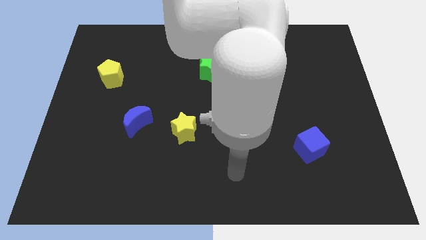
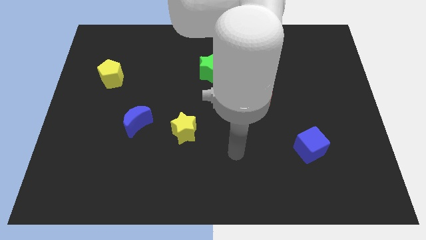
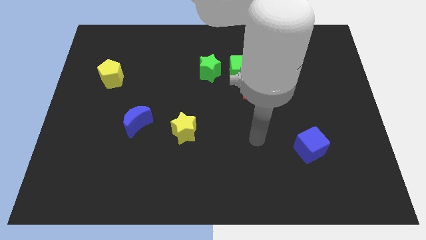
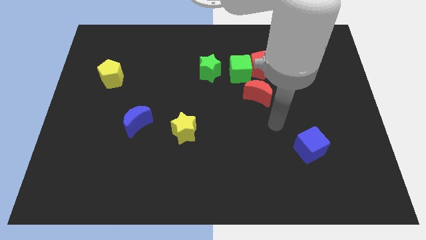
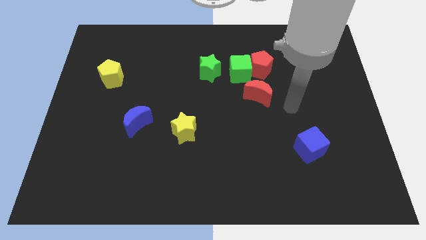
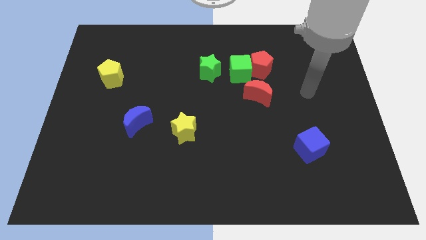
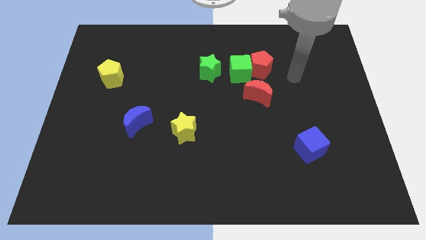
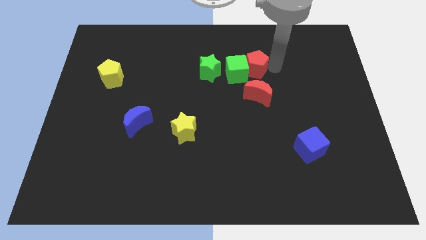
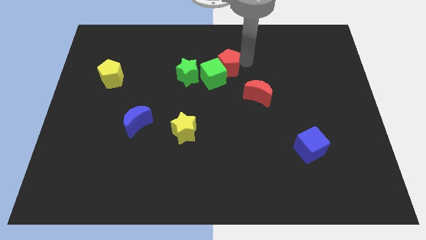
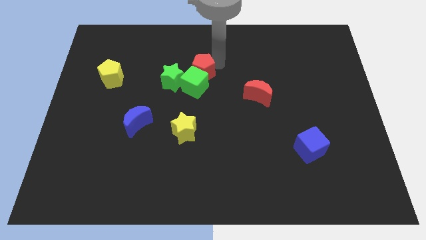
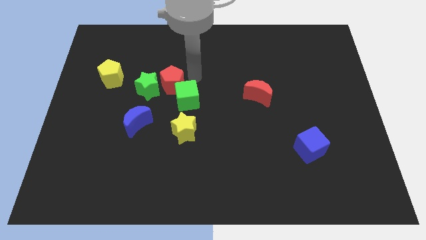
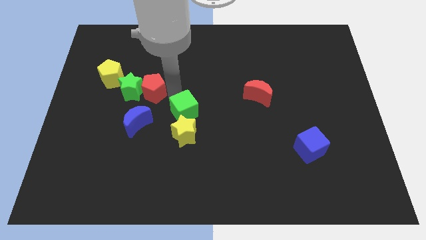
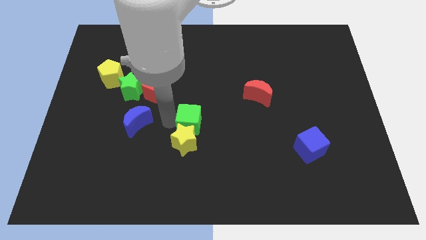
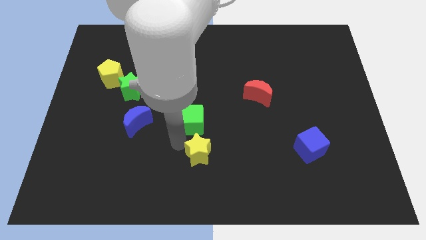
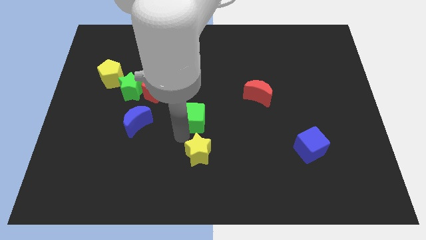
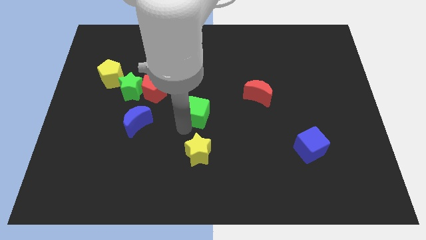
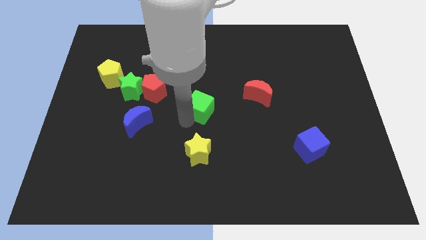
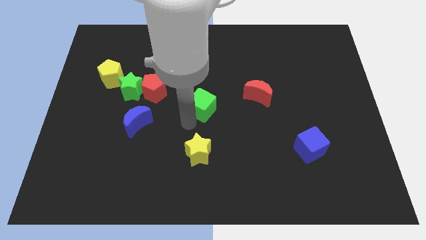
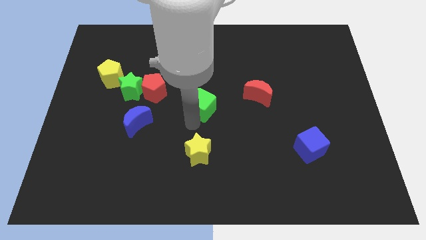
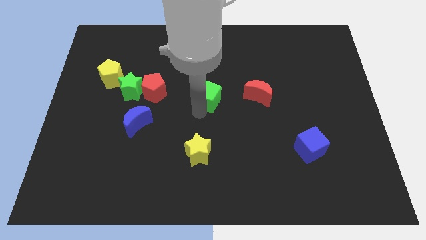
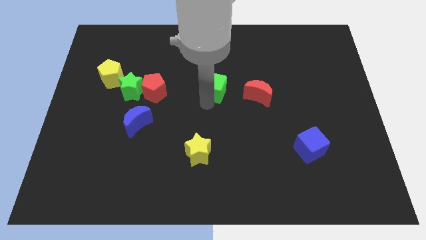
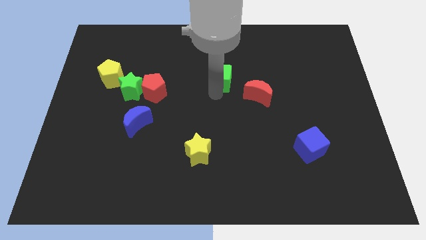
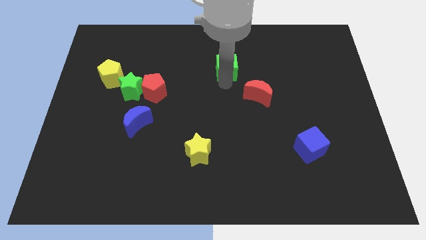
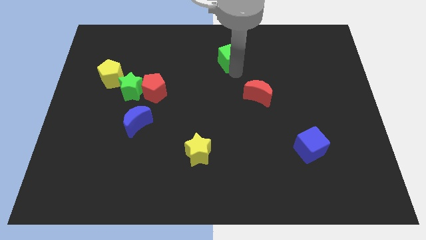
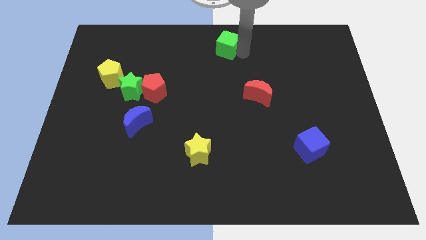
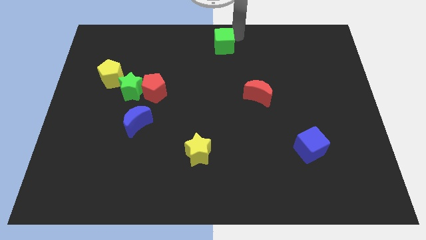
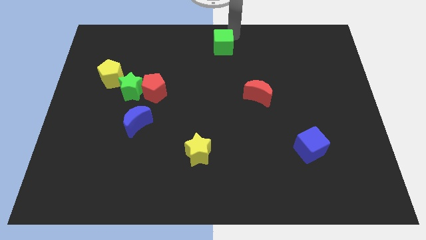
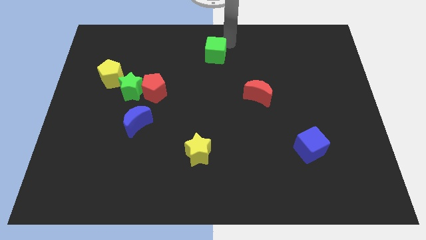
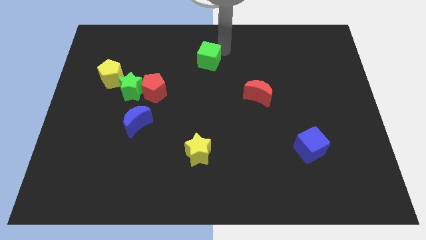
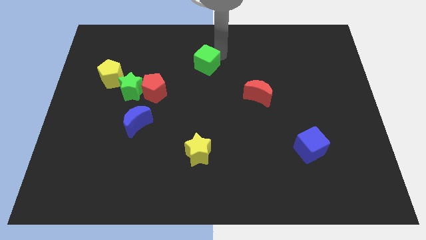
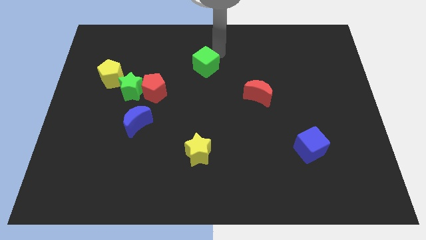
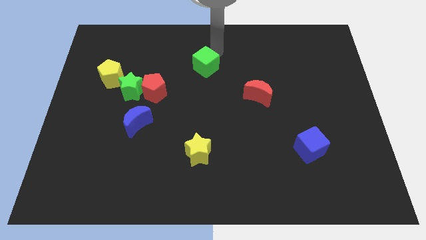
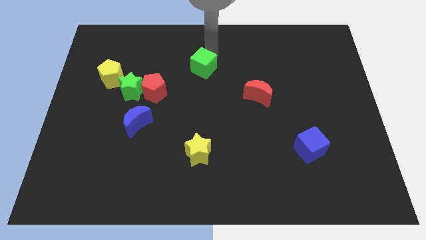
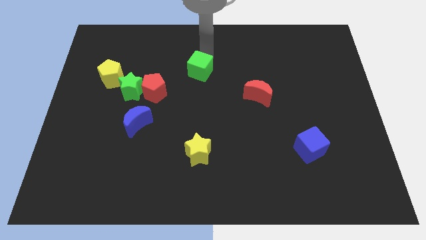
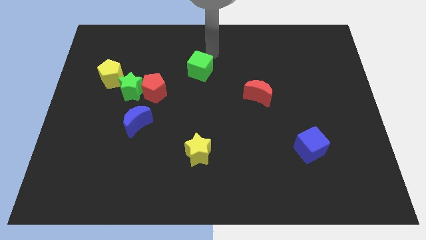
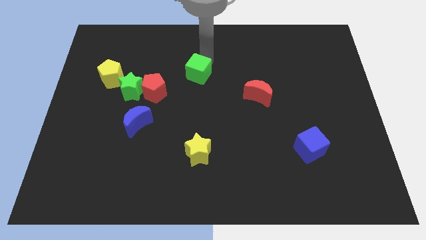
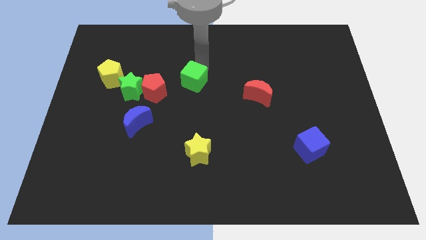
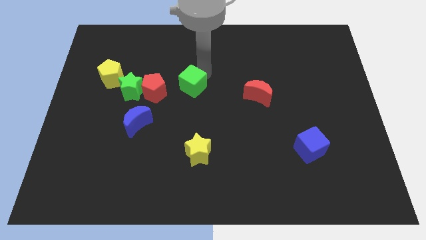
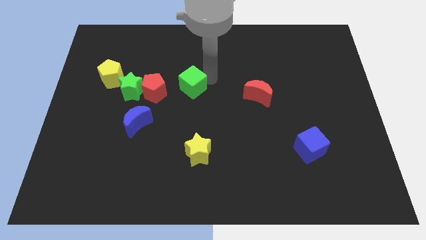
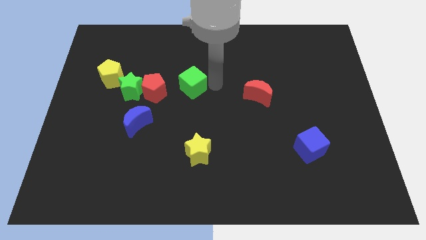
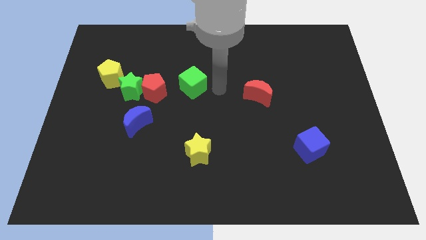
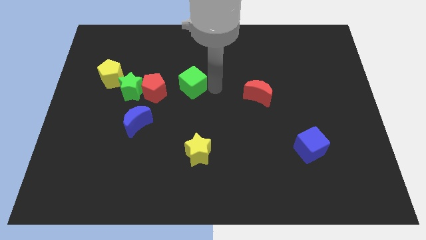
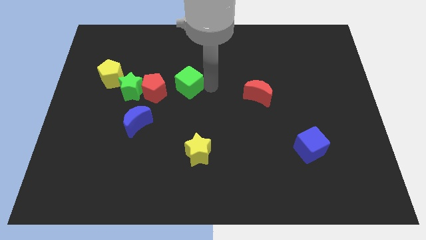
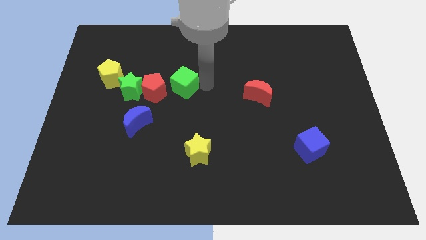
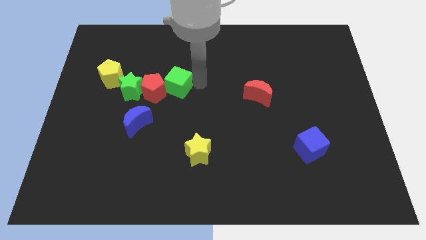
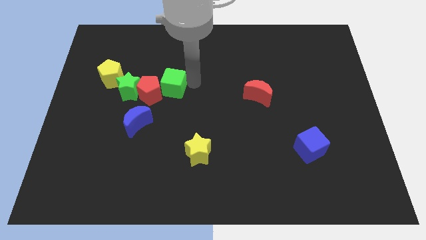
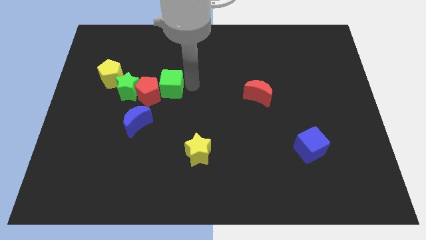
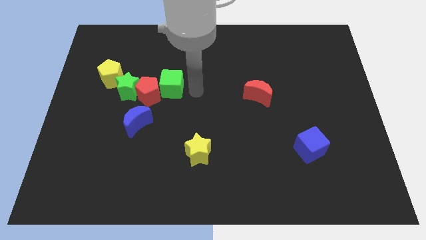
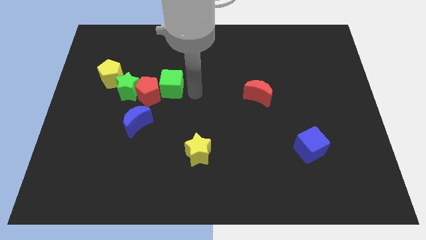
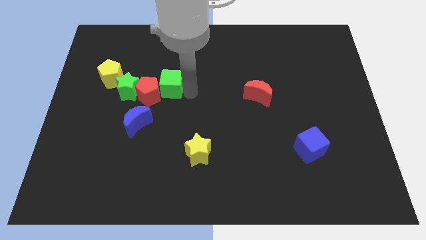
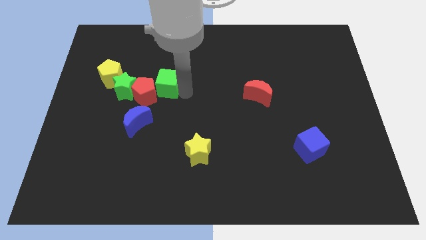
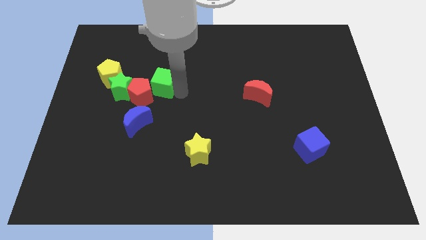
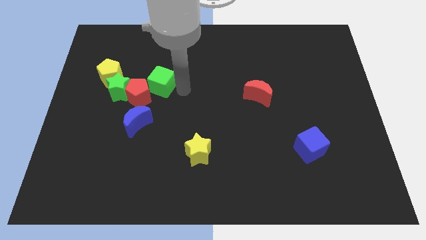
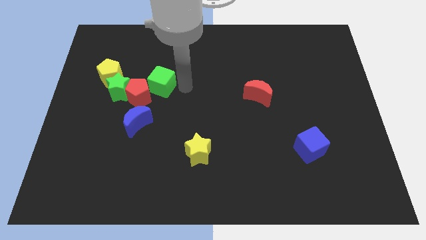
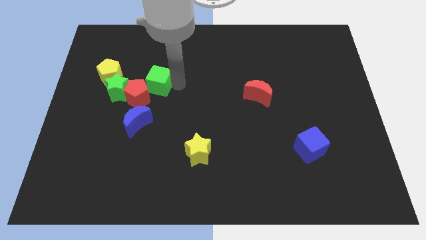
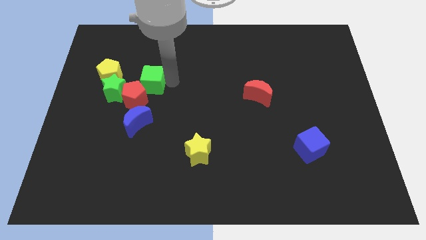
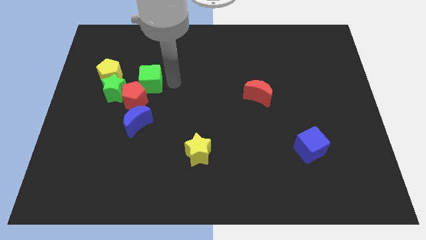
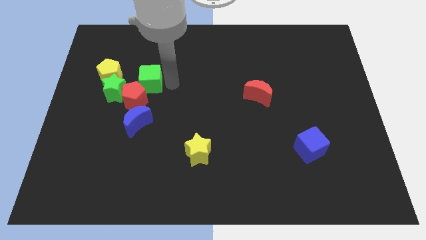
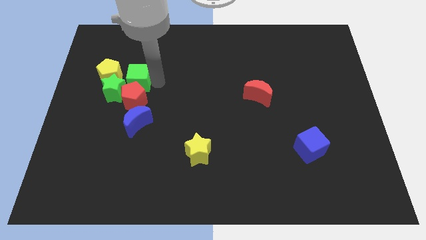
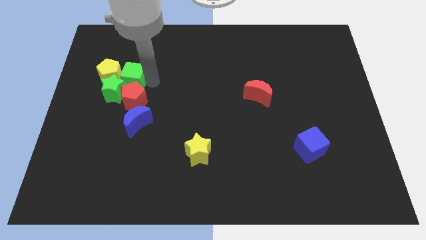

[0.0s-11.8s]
push the green cube next to the yellow pentagon

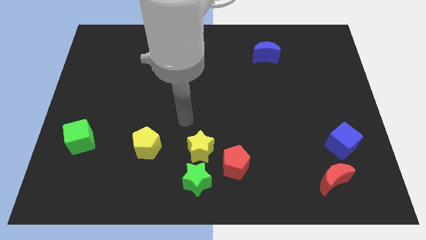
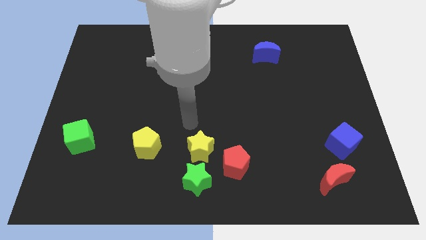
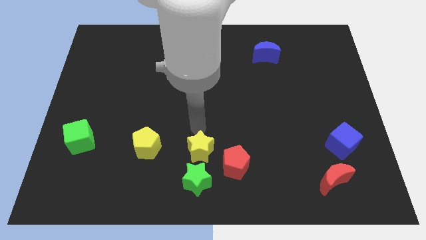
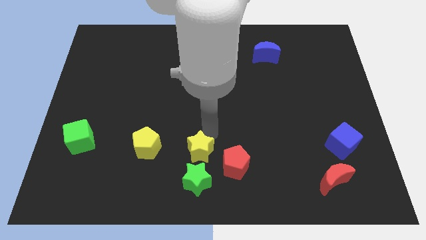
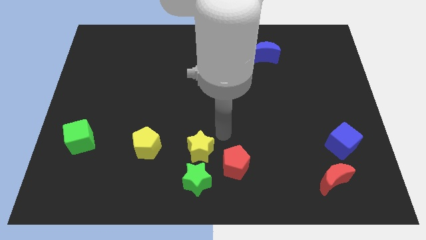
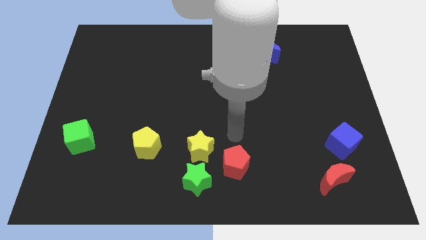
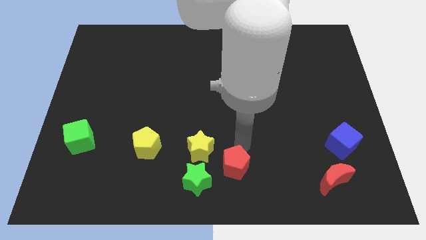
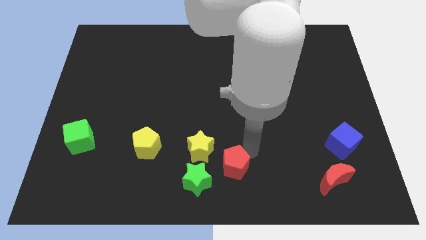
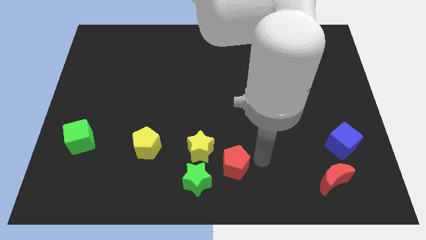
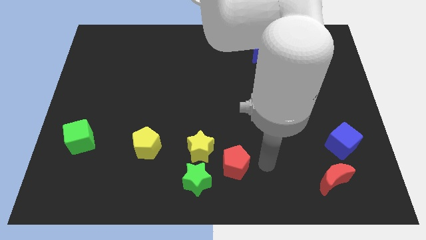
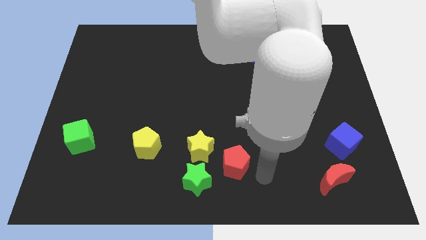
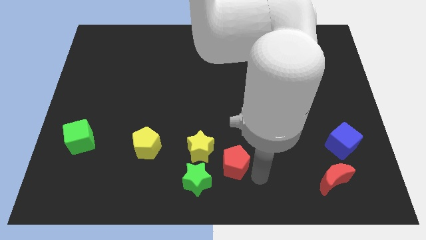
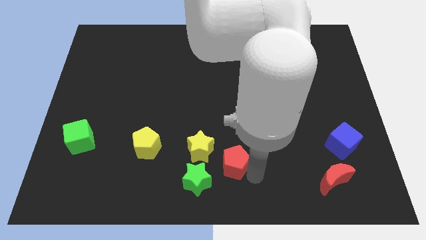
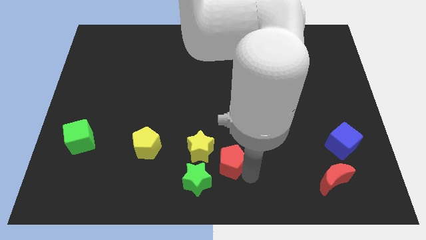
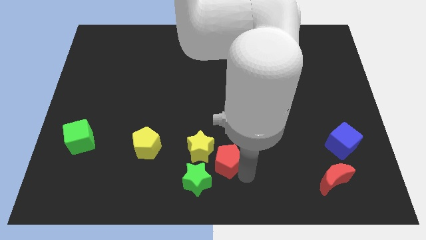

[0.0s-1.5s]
put the red pentagon close to the yellow star
